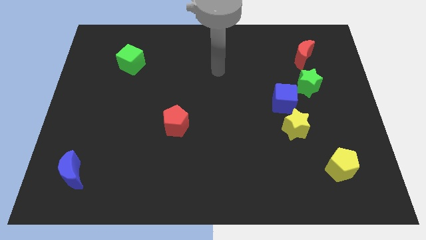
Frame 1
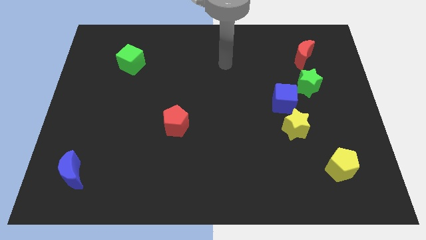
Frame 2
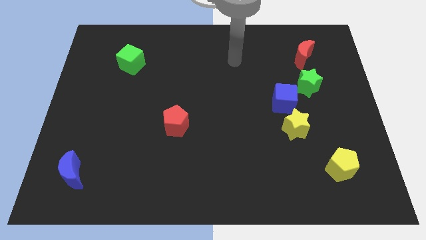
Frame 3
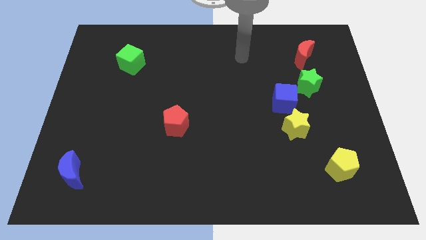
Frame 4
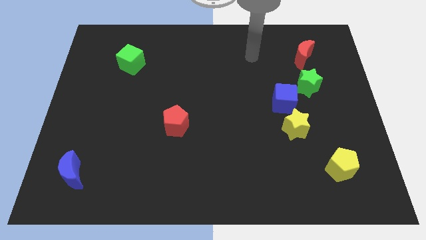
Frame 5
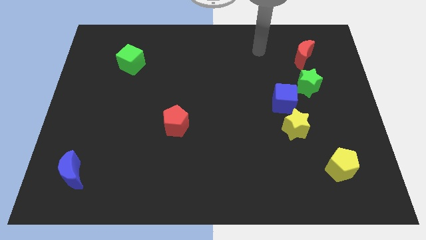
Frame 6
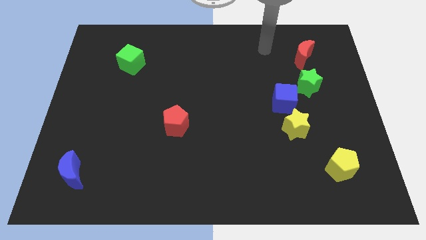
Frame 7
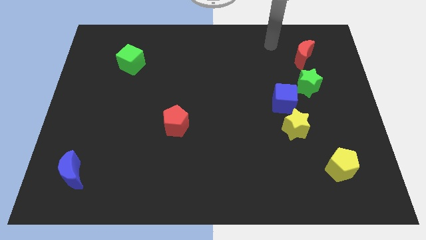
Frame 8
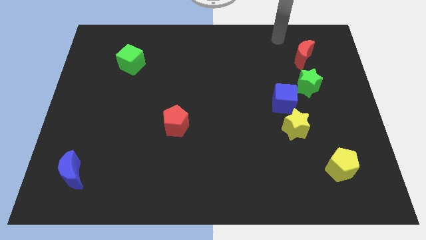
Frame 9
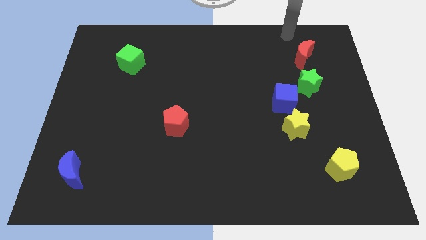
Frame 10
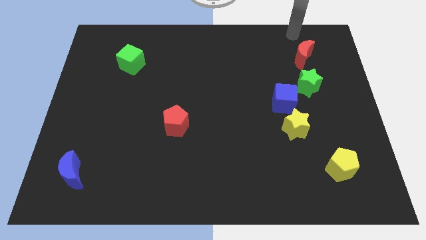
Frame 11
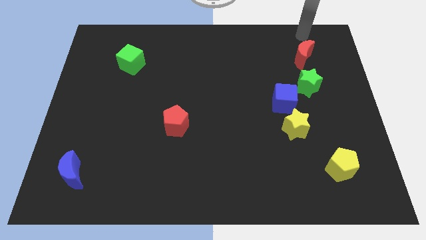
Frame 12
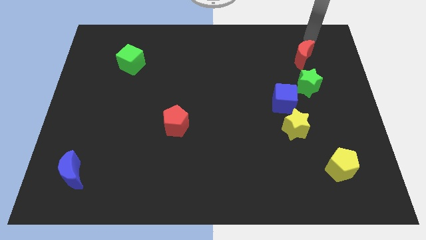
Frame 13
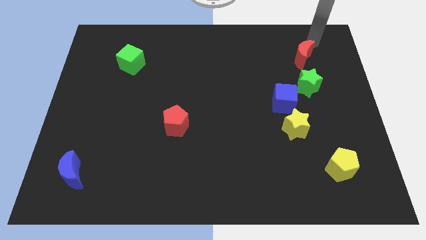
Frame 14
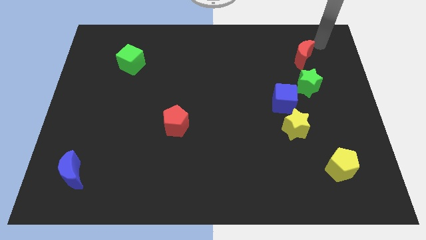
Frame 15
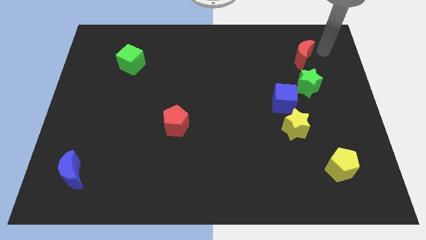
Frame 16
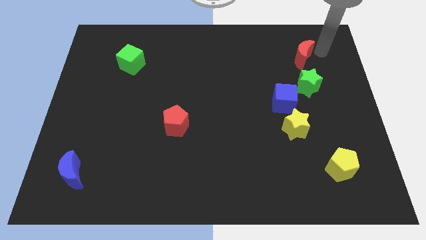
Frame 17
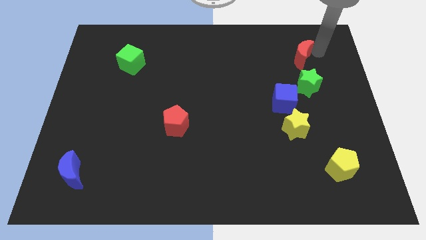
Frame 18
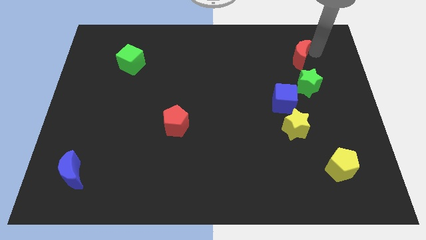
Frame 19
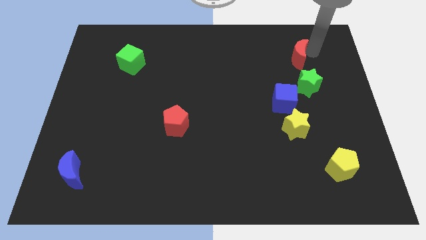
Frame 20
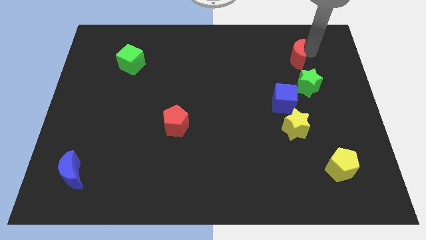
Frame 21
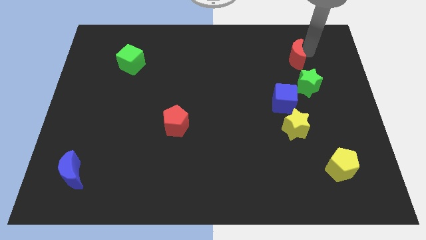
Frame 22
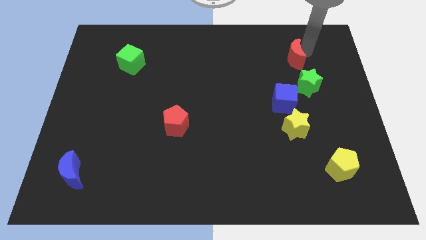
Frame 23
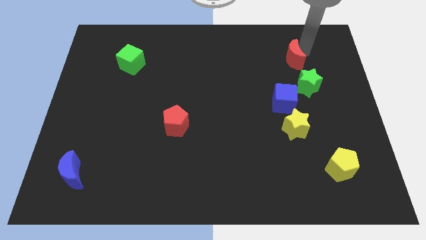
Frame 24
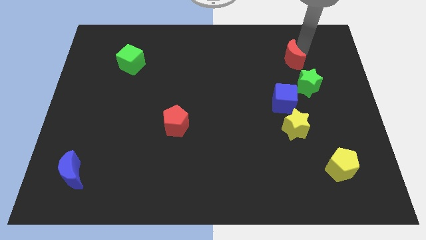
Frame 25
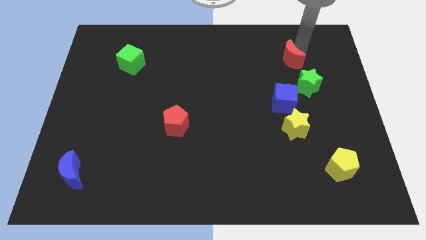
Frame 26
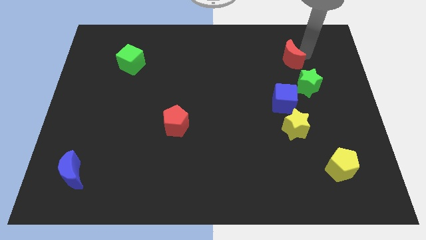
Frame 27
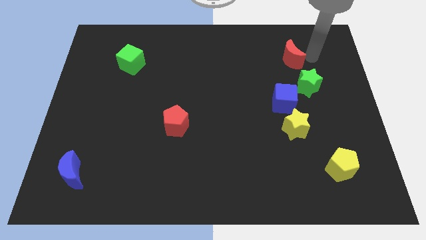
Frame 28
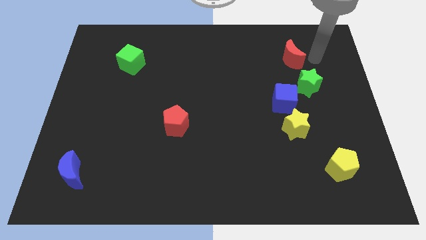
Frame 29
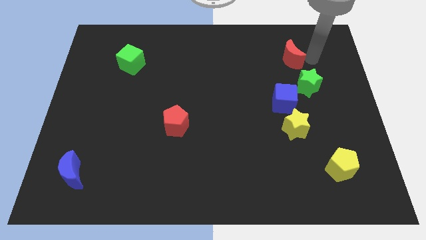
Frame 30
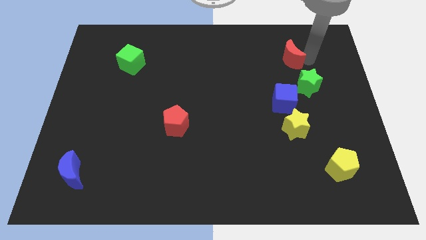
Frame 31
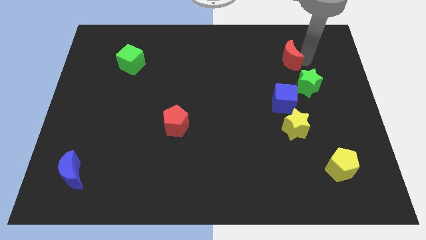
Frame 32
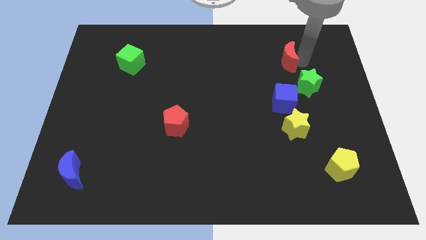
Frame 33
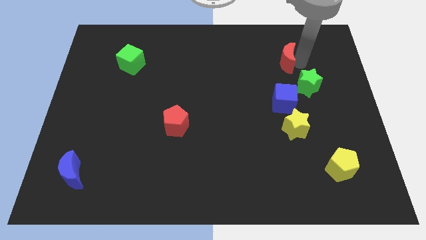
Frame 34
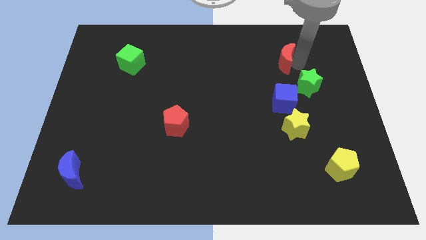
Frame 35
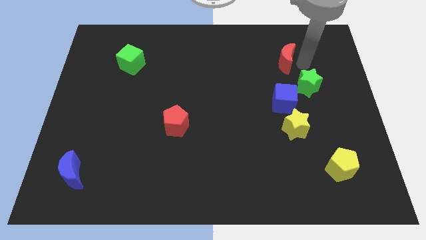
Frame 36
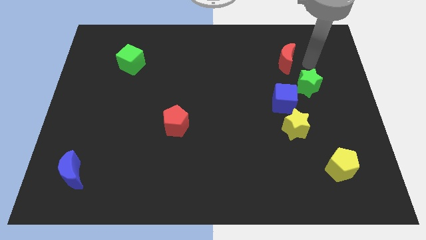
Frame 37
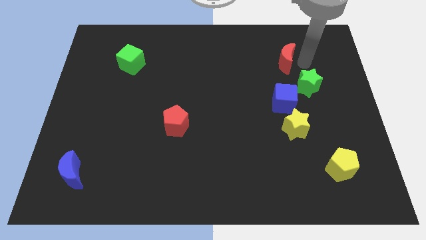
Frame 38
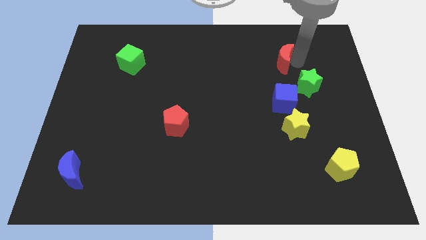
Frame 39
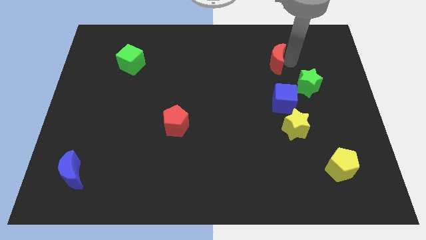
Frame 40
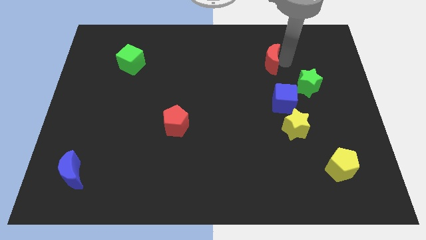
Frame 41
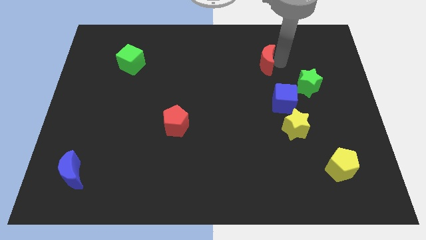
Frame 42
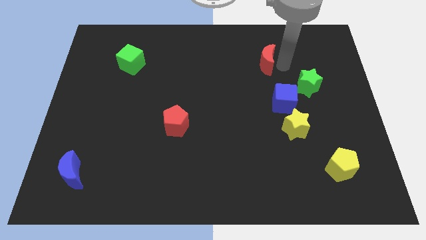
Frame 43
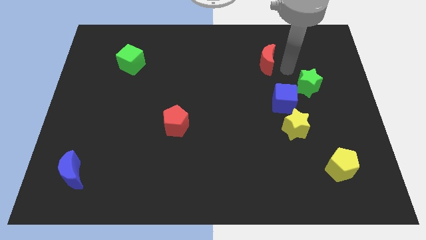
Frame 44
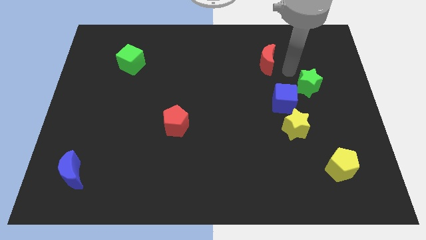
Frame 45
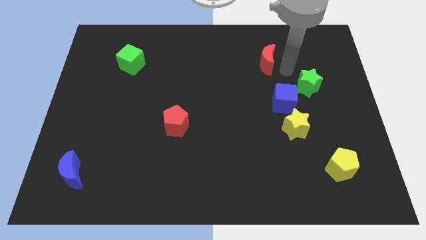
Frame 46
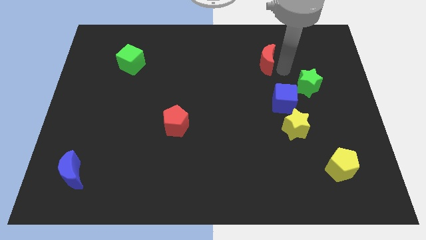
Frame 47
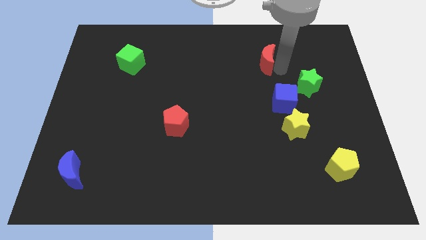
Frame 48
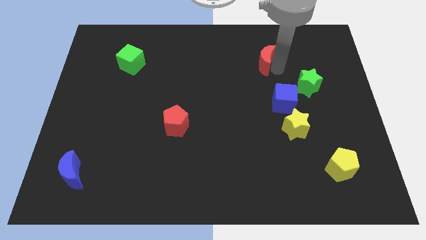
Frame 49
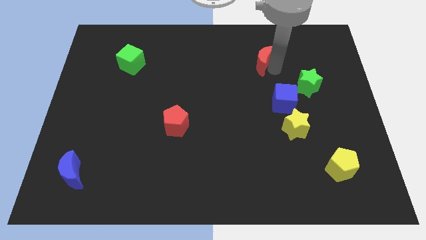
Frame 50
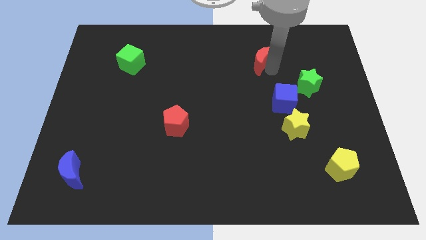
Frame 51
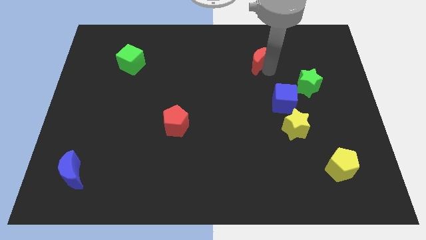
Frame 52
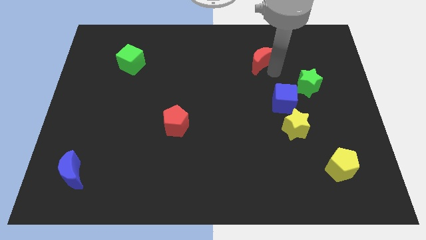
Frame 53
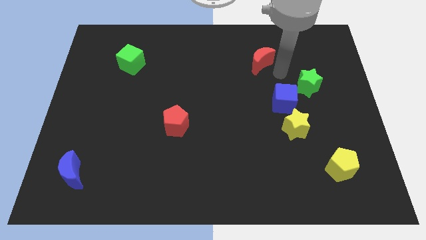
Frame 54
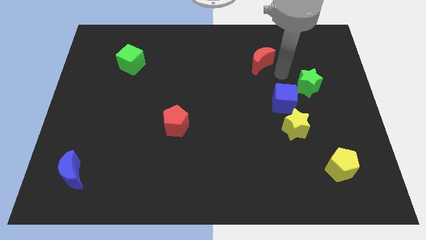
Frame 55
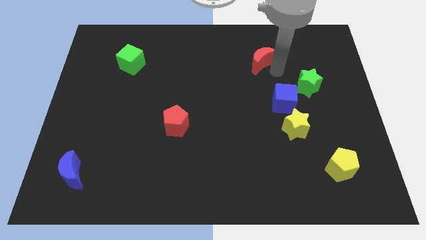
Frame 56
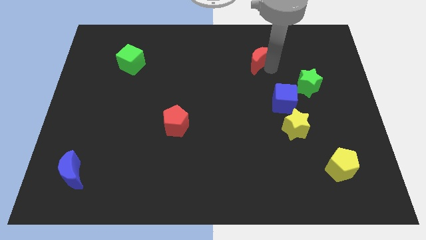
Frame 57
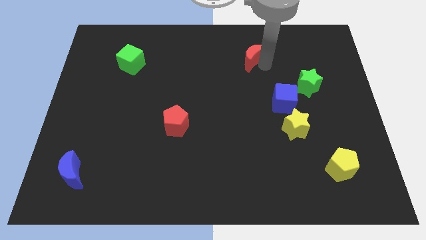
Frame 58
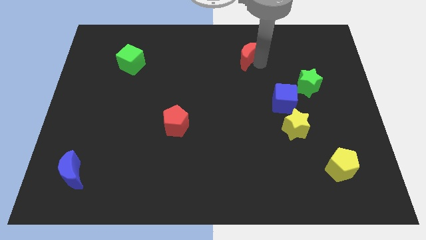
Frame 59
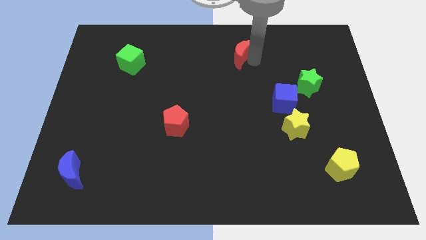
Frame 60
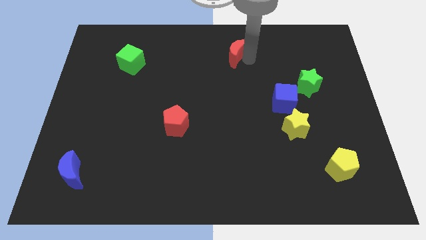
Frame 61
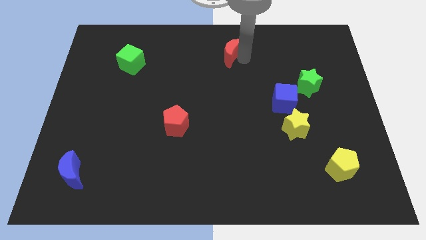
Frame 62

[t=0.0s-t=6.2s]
push the red moon to the top
